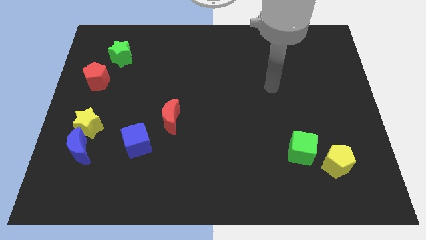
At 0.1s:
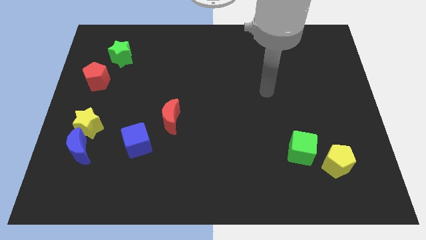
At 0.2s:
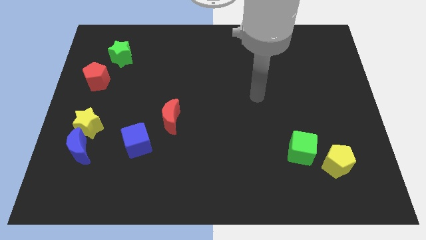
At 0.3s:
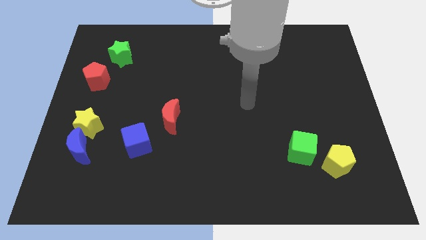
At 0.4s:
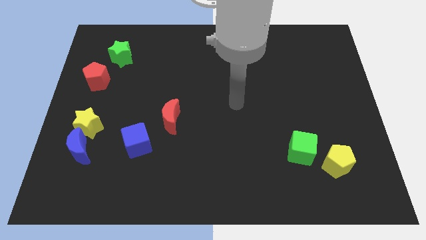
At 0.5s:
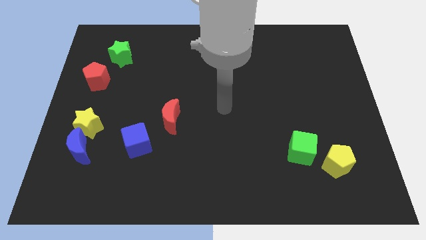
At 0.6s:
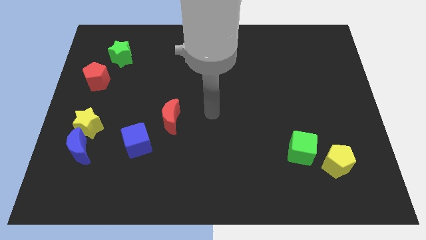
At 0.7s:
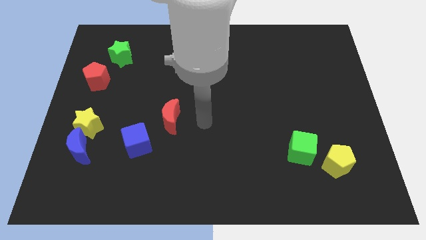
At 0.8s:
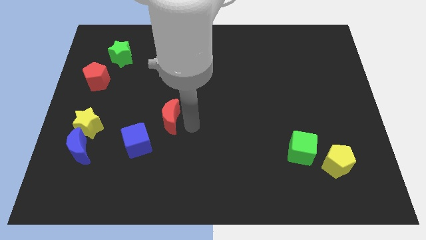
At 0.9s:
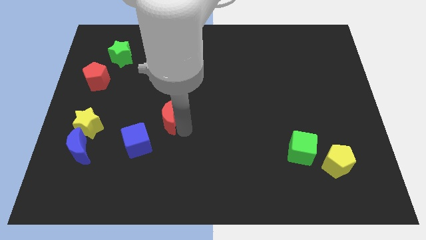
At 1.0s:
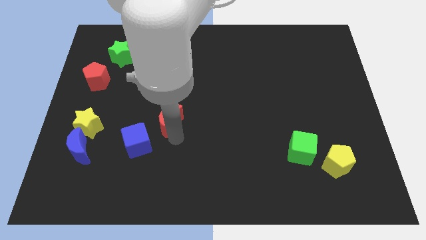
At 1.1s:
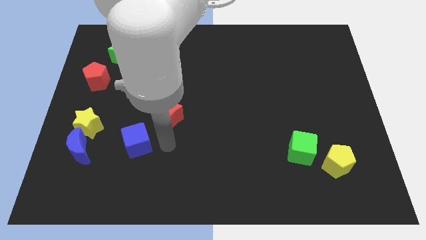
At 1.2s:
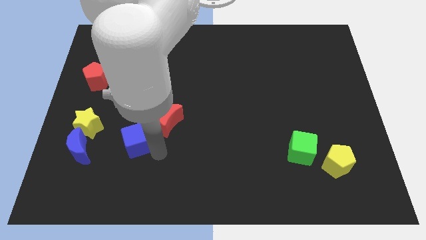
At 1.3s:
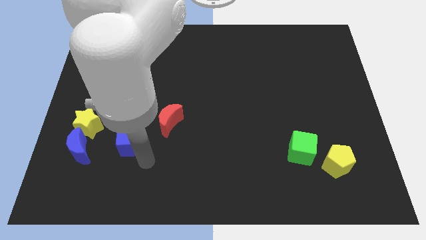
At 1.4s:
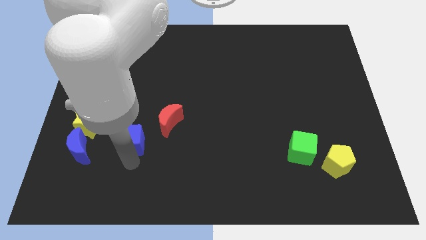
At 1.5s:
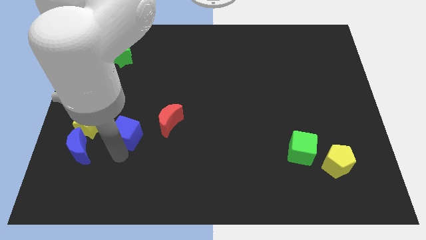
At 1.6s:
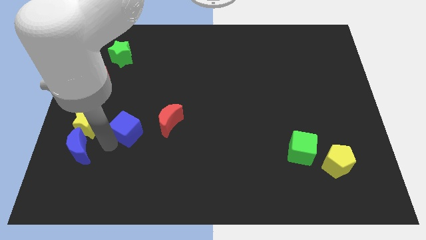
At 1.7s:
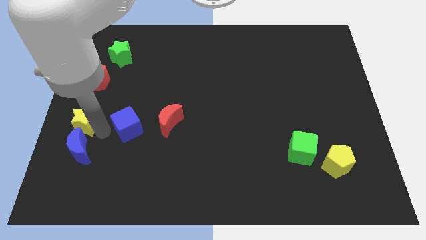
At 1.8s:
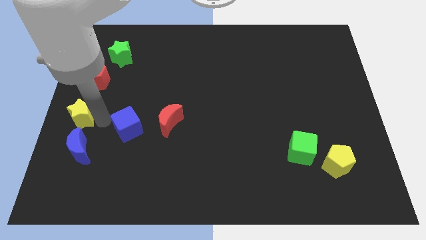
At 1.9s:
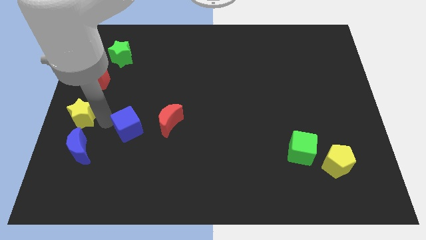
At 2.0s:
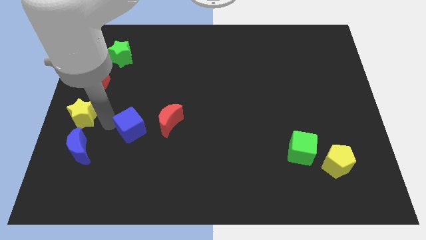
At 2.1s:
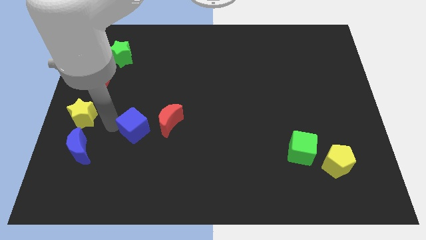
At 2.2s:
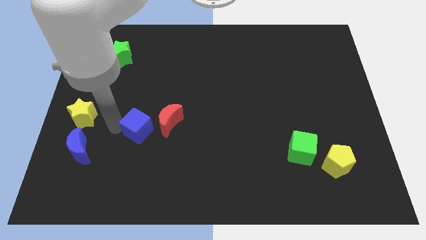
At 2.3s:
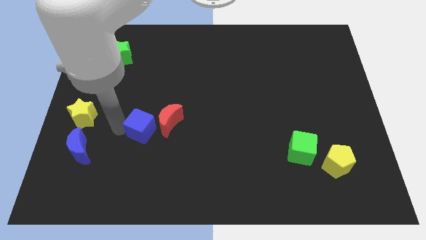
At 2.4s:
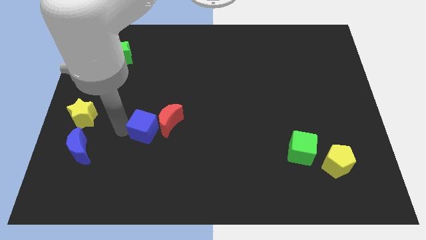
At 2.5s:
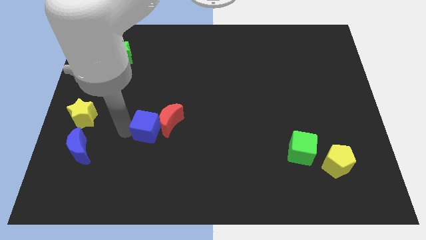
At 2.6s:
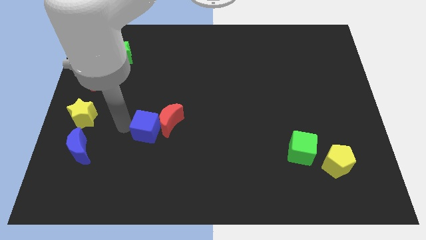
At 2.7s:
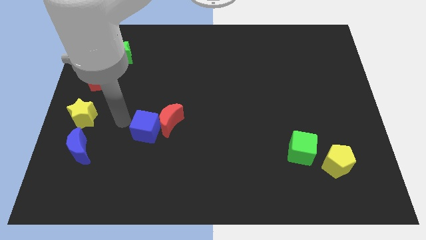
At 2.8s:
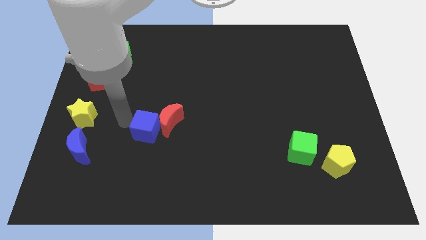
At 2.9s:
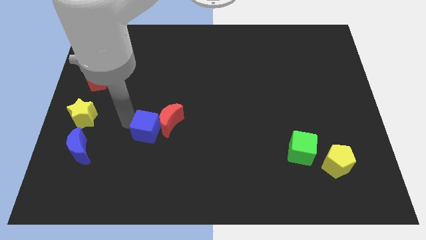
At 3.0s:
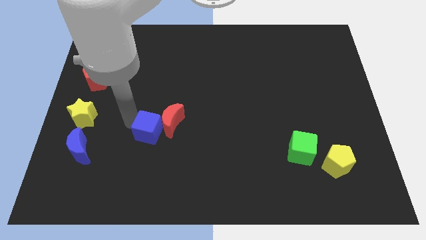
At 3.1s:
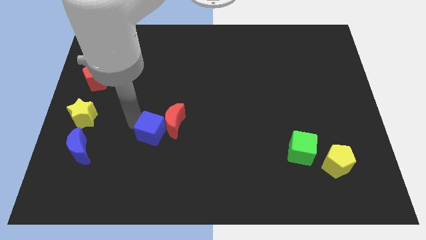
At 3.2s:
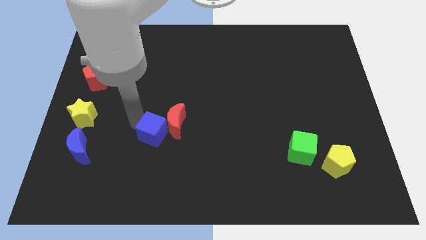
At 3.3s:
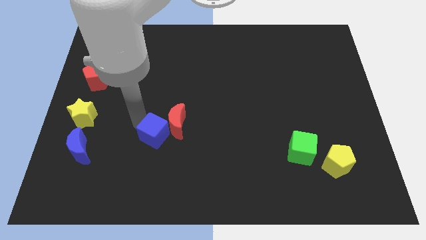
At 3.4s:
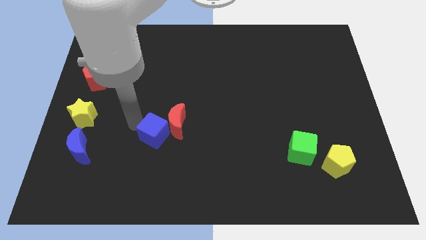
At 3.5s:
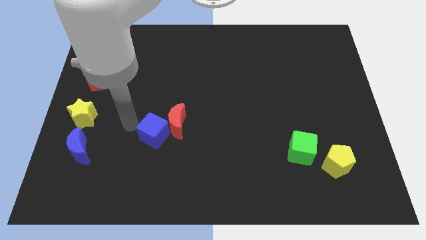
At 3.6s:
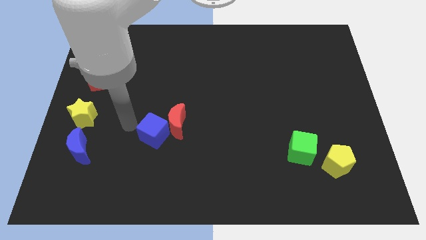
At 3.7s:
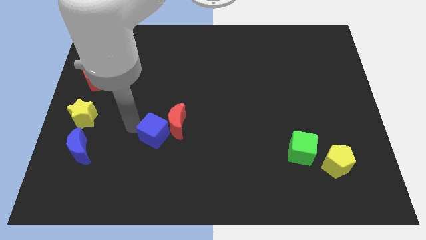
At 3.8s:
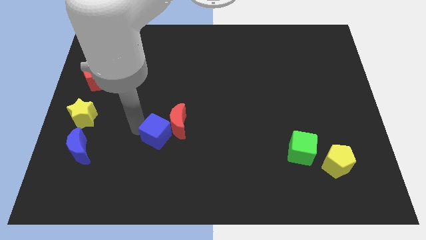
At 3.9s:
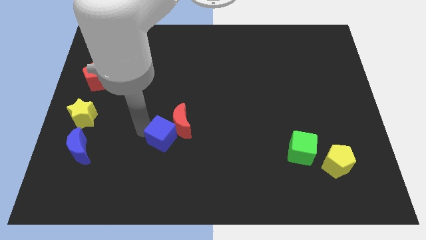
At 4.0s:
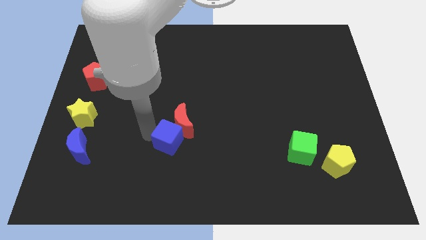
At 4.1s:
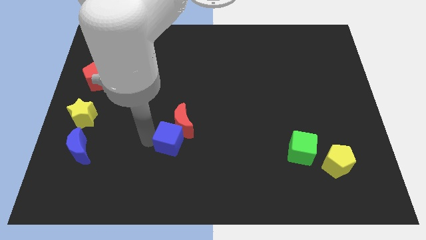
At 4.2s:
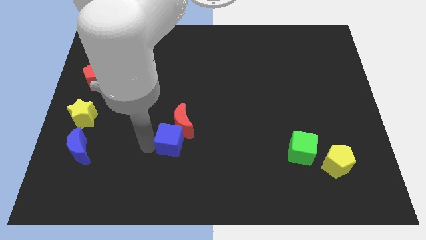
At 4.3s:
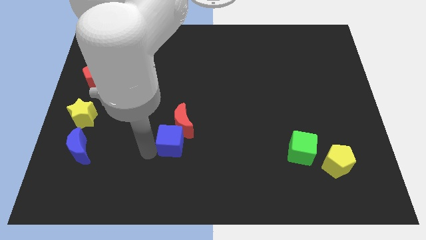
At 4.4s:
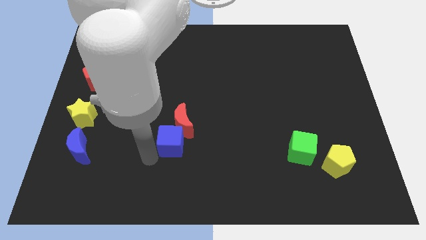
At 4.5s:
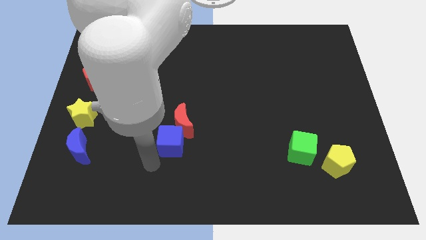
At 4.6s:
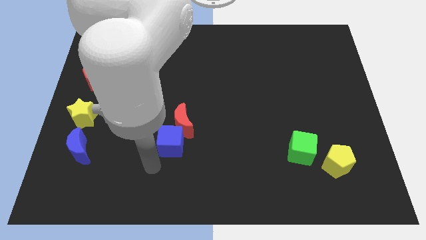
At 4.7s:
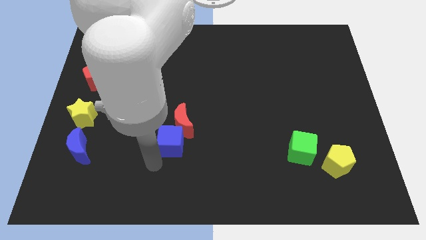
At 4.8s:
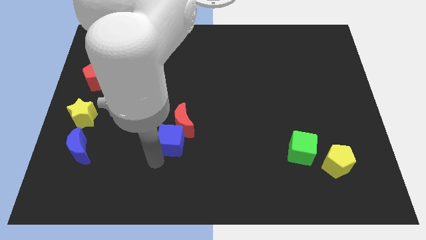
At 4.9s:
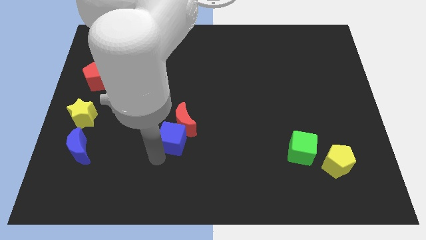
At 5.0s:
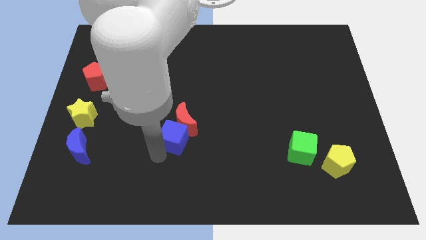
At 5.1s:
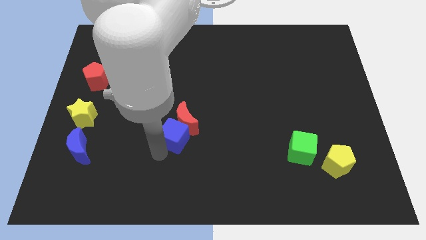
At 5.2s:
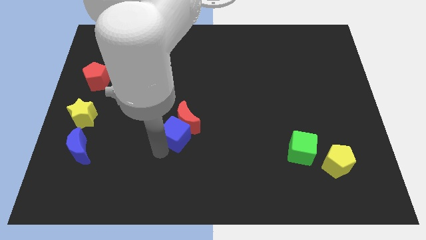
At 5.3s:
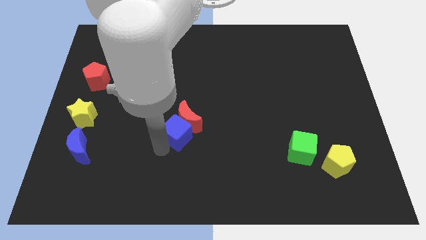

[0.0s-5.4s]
slightly push the blue cube up and to the right diagonally

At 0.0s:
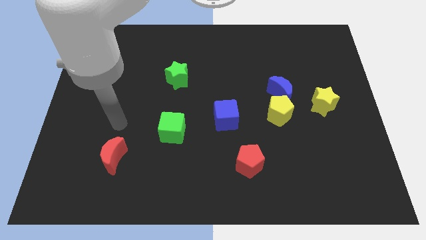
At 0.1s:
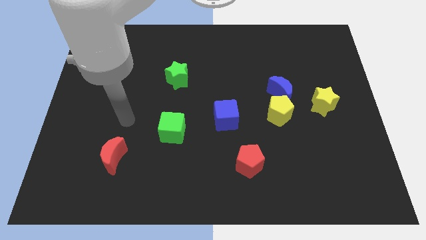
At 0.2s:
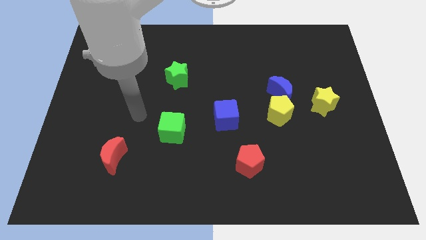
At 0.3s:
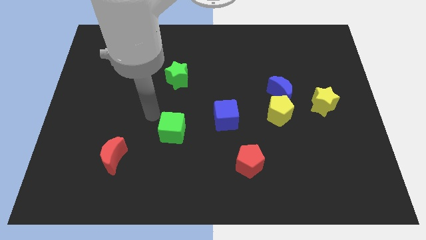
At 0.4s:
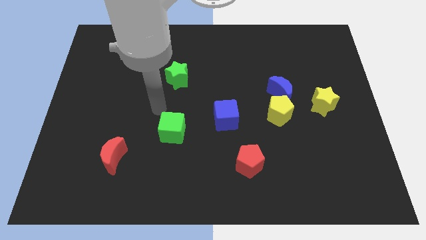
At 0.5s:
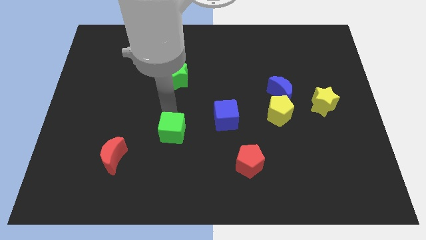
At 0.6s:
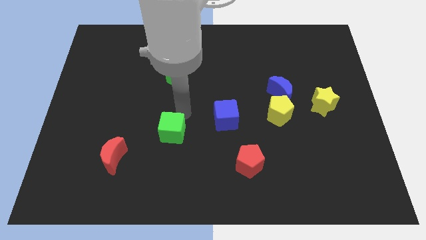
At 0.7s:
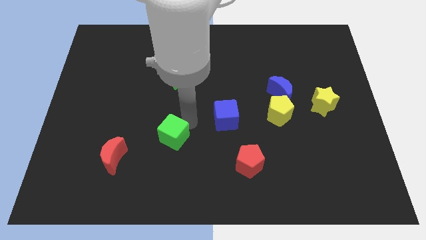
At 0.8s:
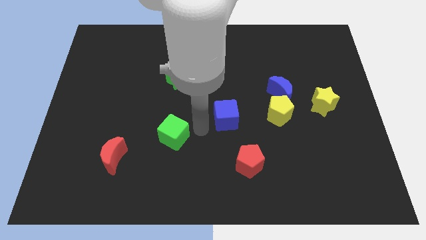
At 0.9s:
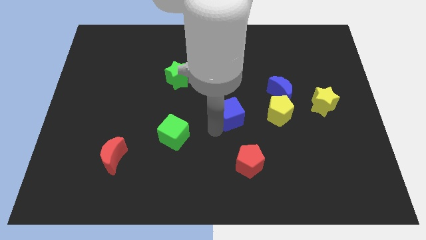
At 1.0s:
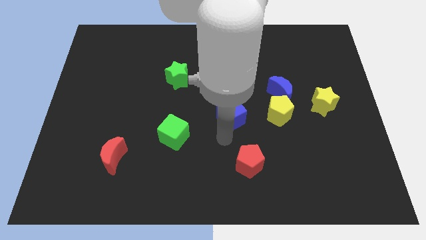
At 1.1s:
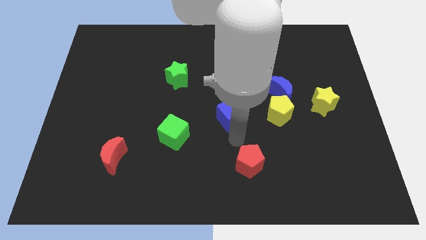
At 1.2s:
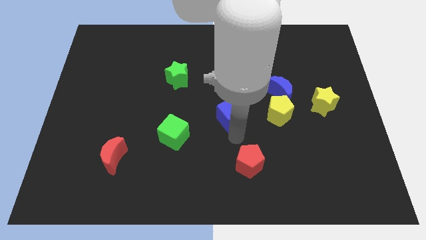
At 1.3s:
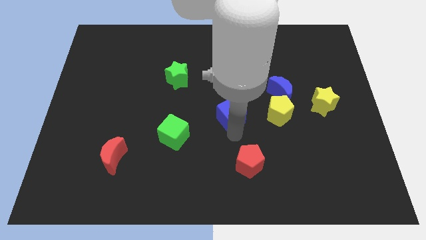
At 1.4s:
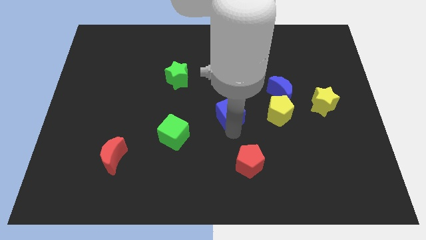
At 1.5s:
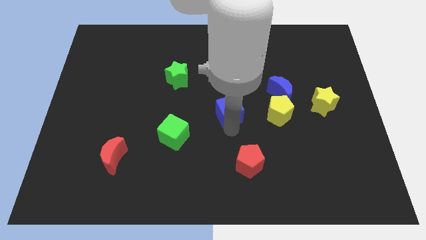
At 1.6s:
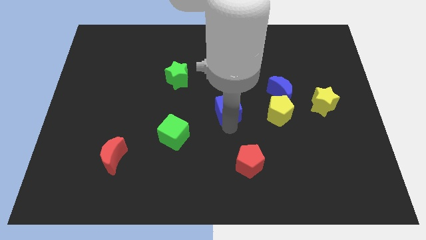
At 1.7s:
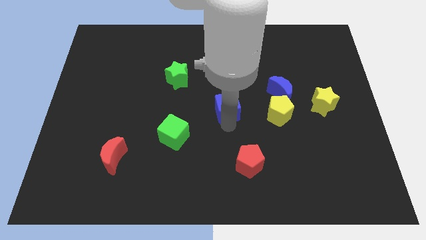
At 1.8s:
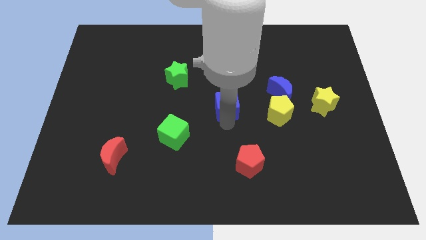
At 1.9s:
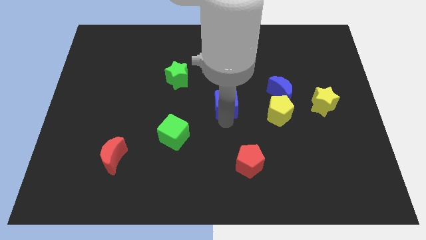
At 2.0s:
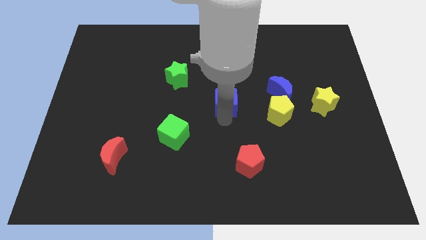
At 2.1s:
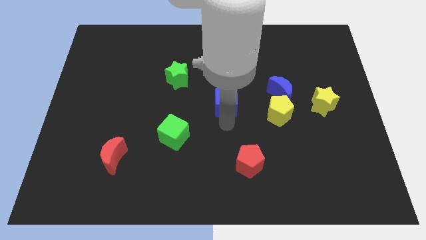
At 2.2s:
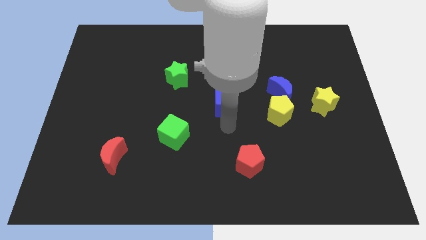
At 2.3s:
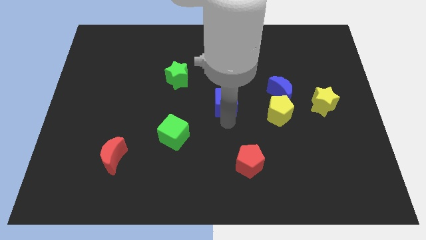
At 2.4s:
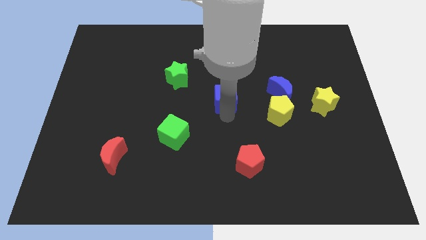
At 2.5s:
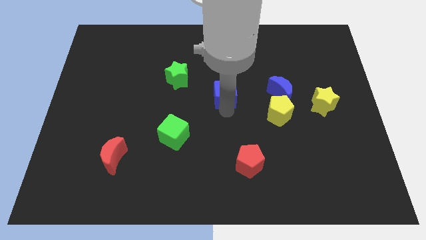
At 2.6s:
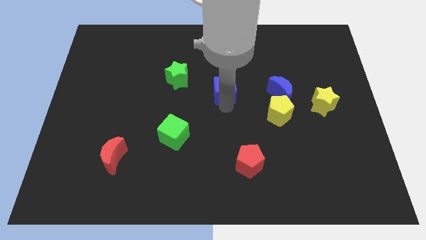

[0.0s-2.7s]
push the blue cube somewhat upwards
